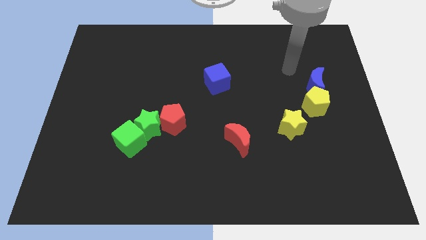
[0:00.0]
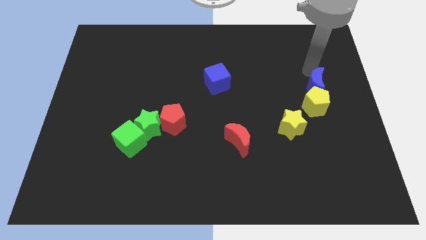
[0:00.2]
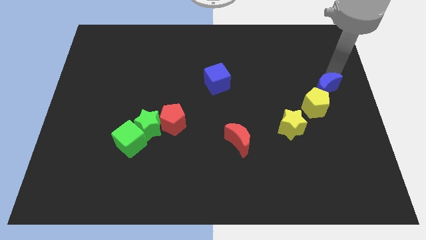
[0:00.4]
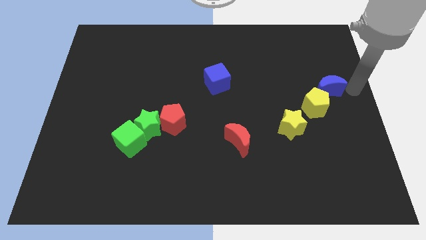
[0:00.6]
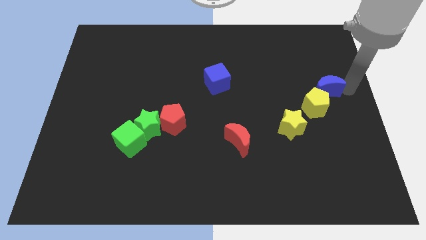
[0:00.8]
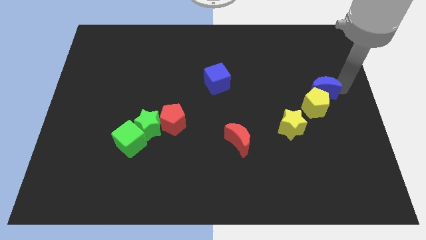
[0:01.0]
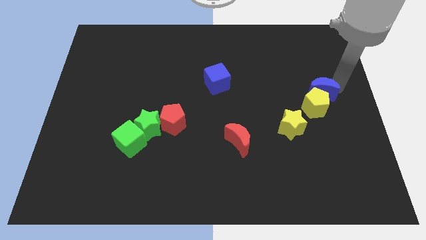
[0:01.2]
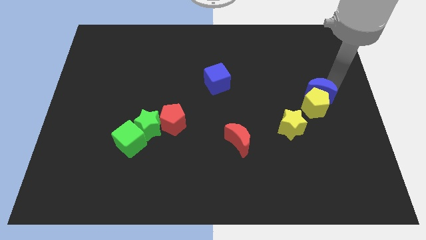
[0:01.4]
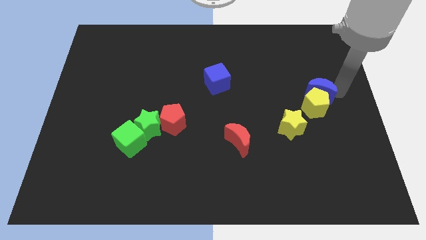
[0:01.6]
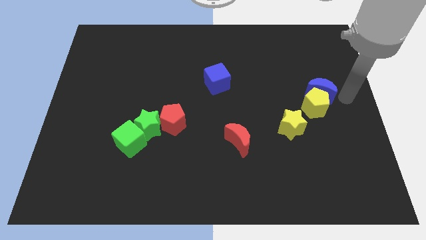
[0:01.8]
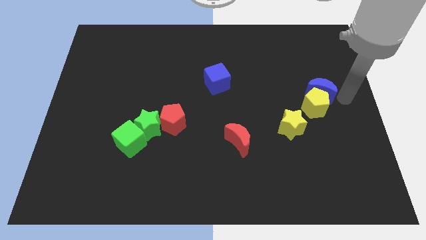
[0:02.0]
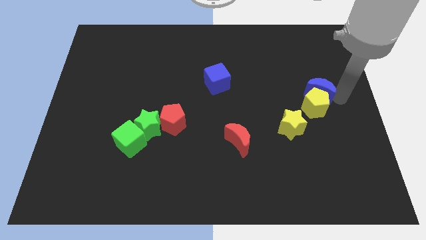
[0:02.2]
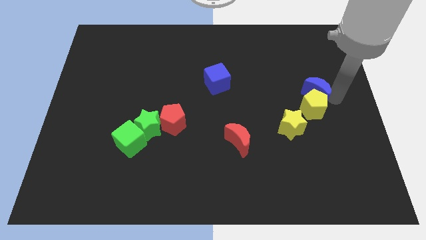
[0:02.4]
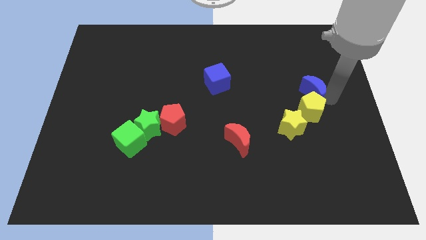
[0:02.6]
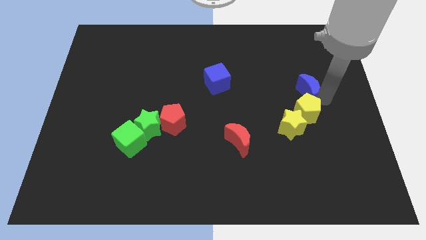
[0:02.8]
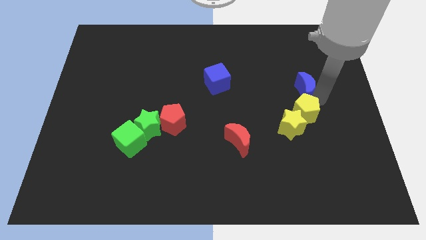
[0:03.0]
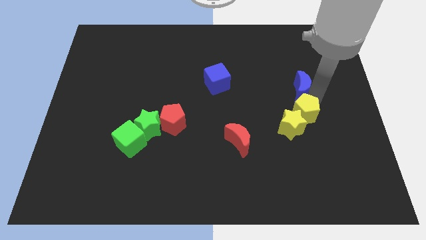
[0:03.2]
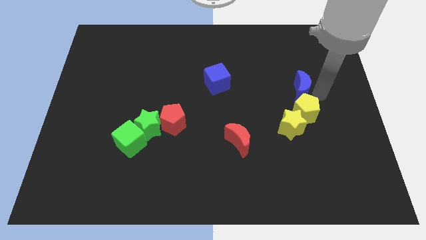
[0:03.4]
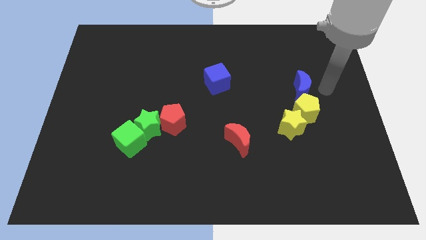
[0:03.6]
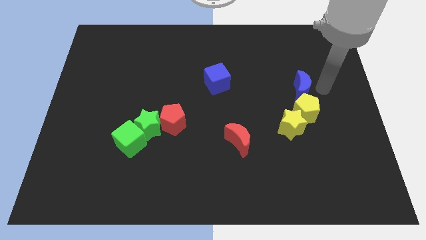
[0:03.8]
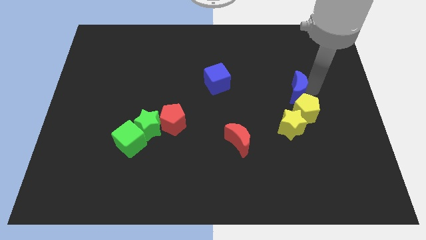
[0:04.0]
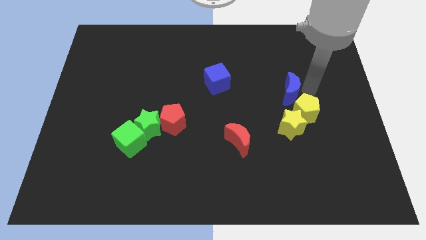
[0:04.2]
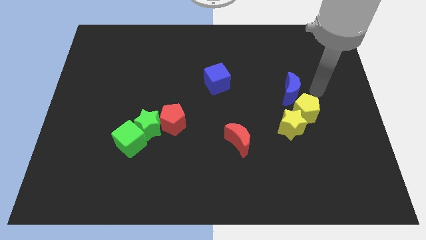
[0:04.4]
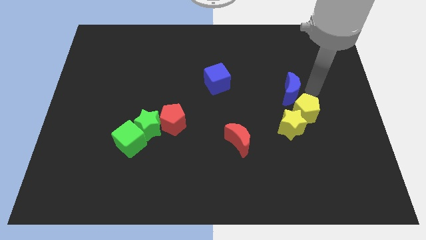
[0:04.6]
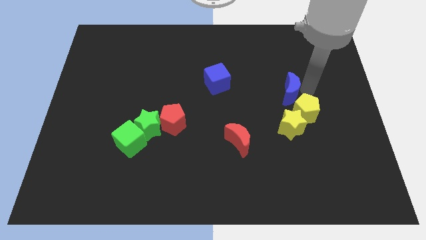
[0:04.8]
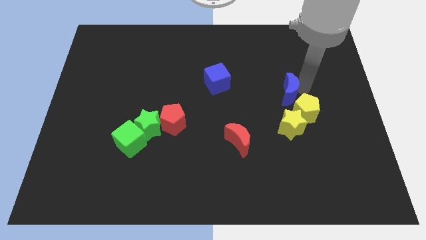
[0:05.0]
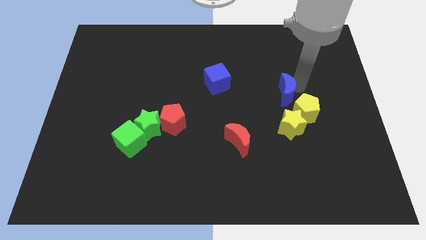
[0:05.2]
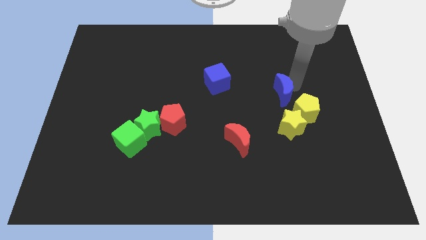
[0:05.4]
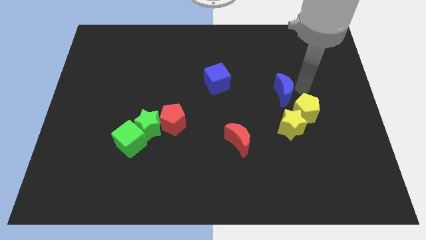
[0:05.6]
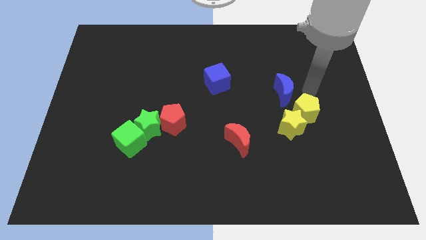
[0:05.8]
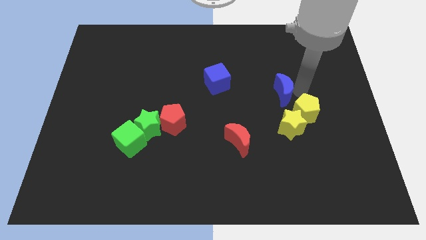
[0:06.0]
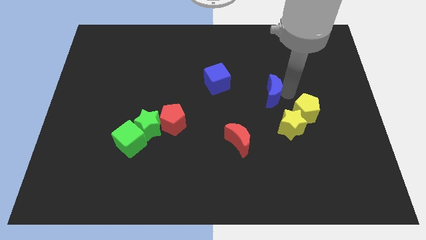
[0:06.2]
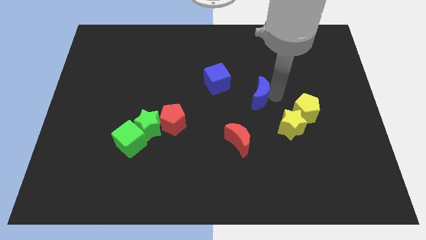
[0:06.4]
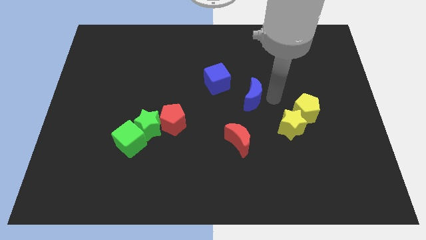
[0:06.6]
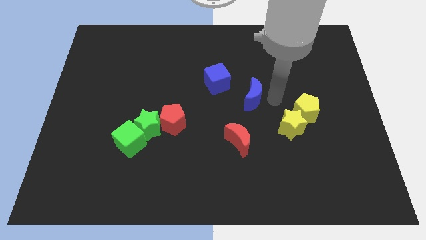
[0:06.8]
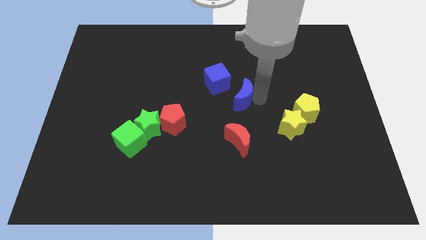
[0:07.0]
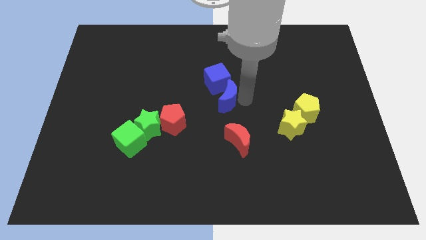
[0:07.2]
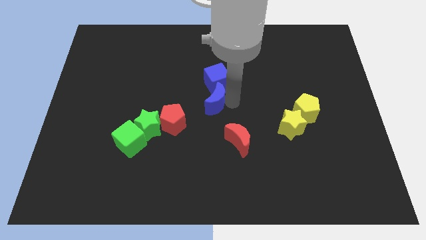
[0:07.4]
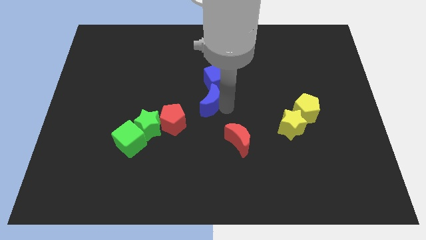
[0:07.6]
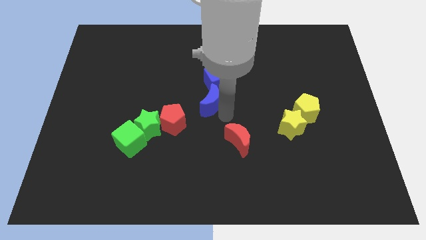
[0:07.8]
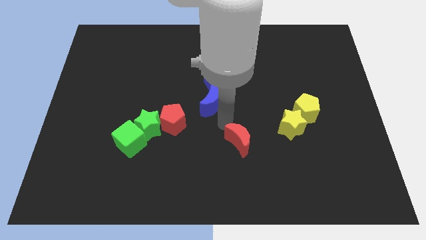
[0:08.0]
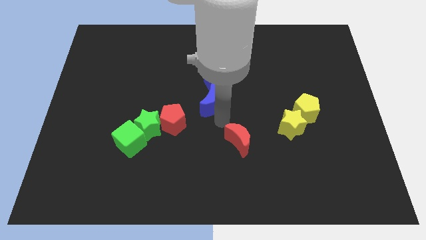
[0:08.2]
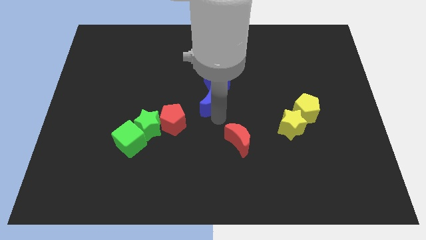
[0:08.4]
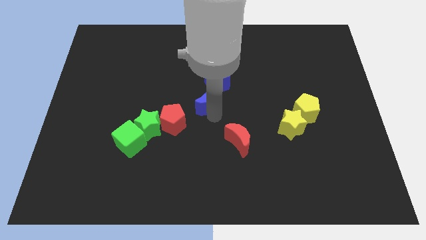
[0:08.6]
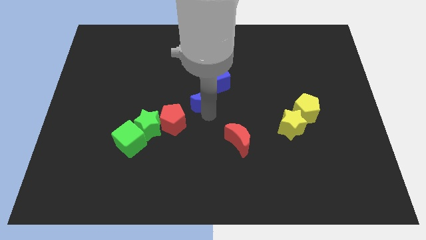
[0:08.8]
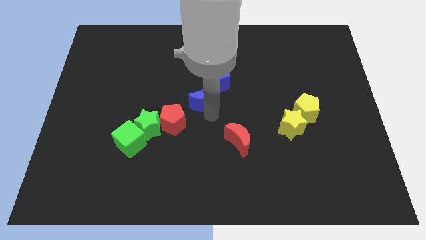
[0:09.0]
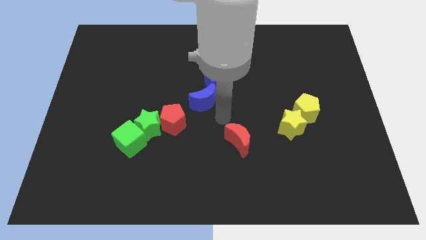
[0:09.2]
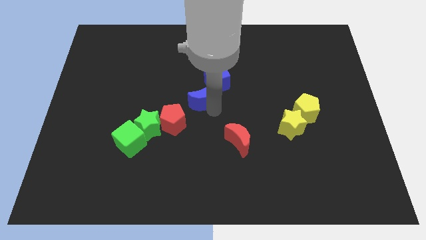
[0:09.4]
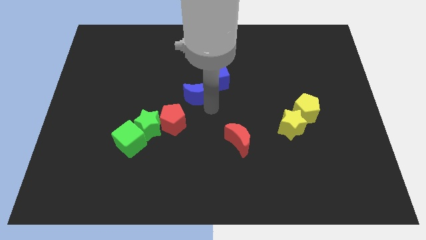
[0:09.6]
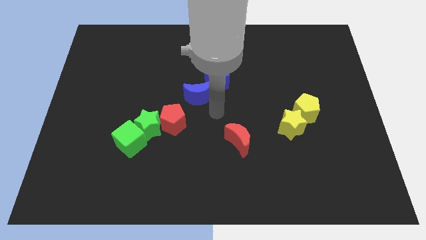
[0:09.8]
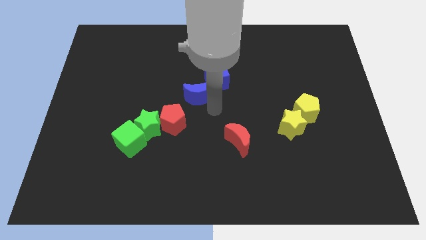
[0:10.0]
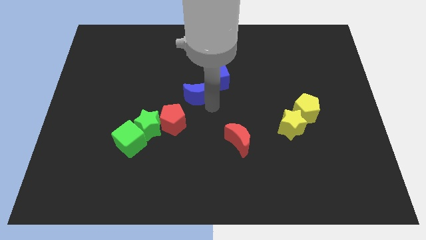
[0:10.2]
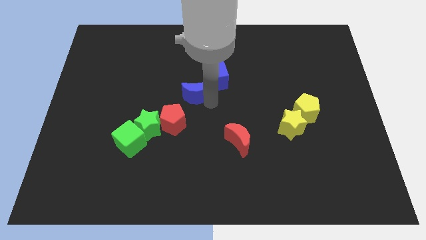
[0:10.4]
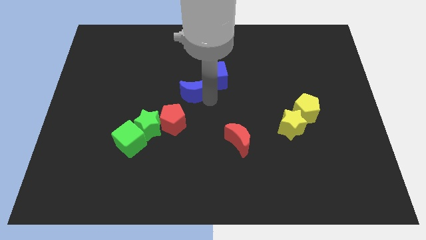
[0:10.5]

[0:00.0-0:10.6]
slide the blue moon to the top side of the red pentagon

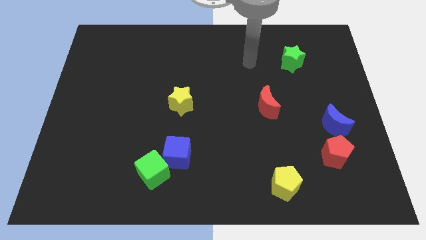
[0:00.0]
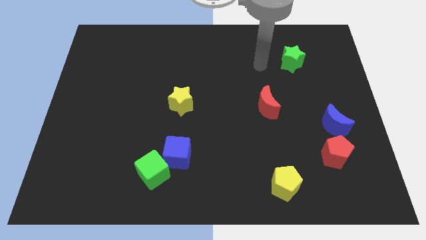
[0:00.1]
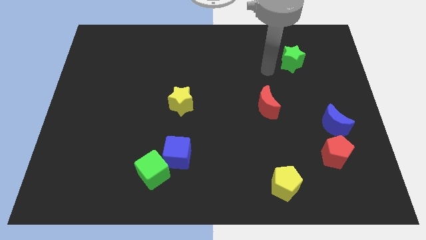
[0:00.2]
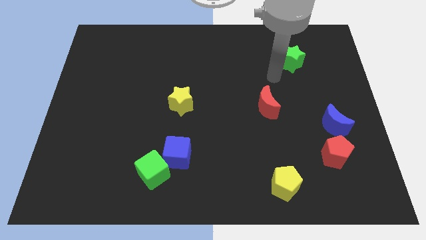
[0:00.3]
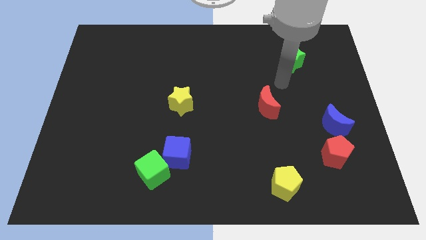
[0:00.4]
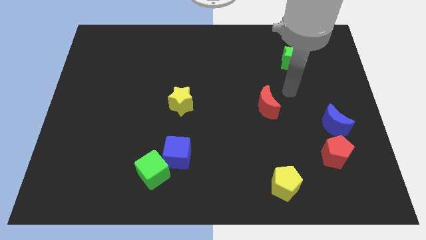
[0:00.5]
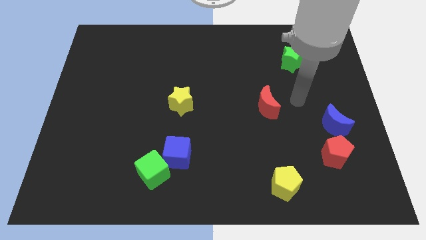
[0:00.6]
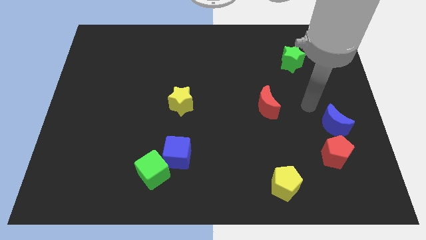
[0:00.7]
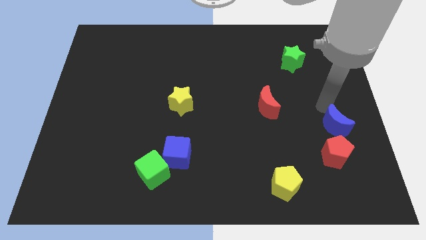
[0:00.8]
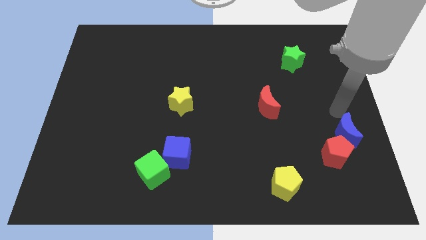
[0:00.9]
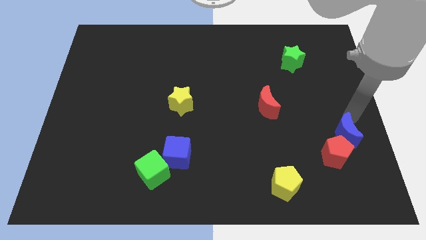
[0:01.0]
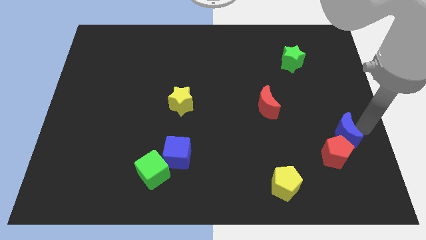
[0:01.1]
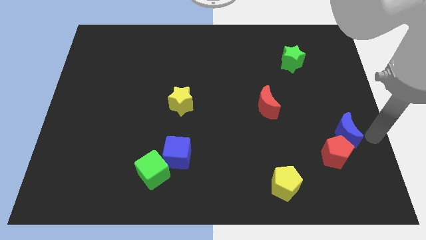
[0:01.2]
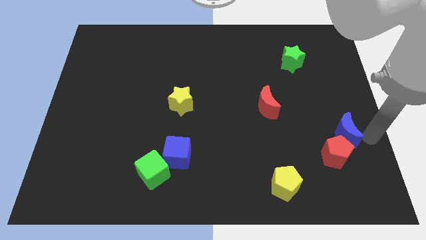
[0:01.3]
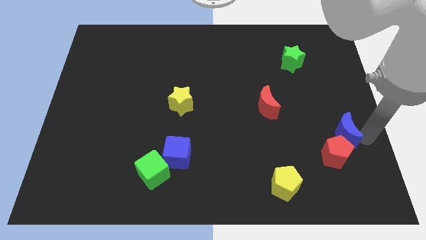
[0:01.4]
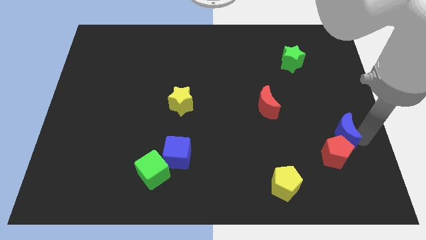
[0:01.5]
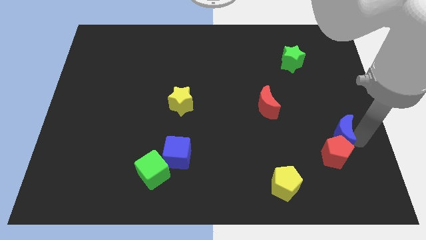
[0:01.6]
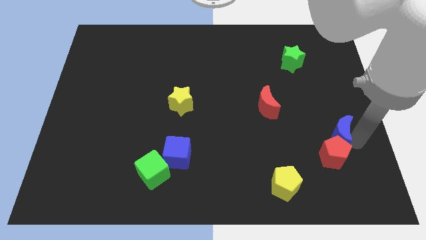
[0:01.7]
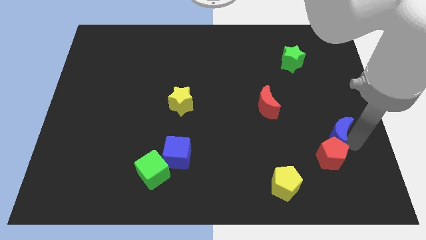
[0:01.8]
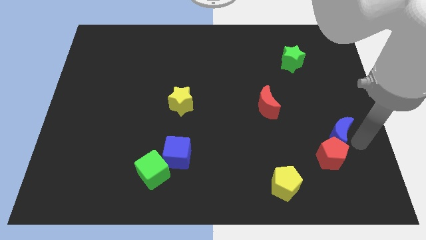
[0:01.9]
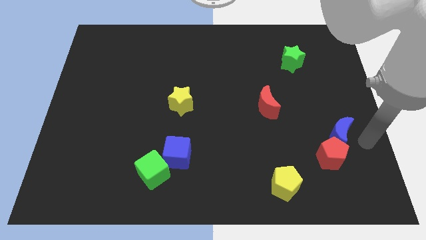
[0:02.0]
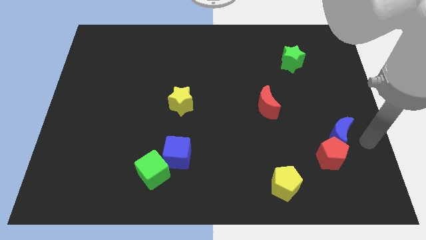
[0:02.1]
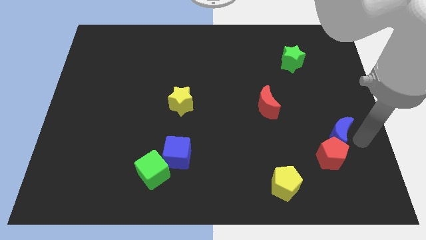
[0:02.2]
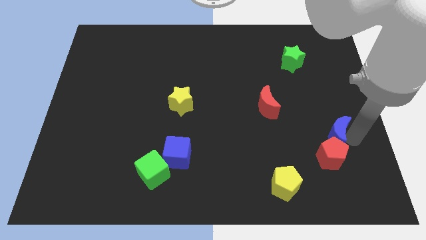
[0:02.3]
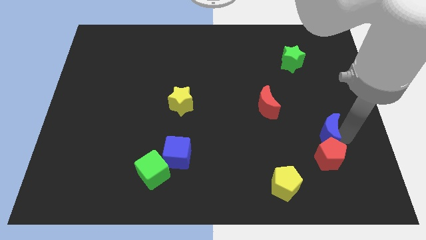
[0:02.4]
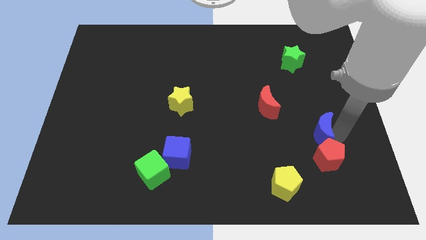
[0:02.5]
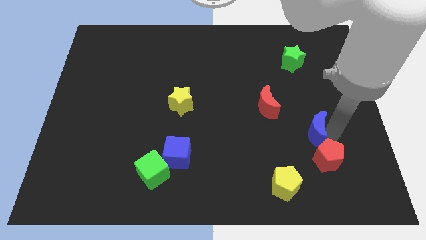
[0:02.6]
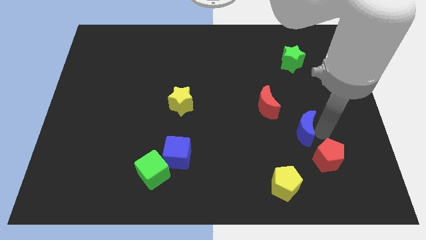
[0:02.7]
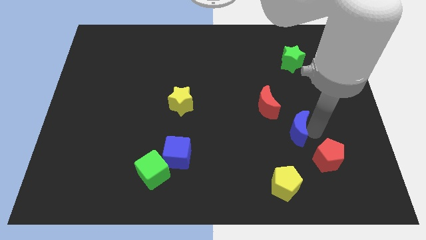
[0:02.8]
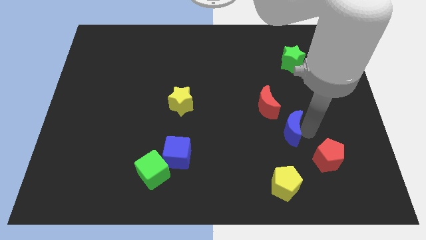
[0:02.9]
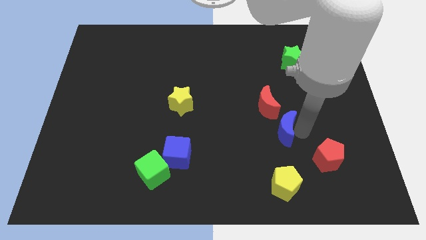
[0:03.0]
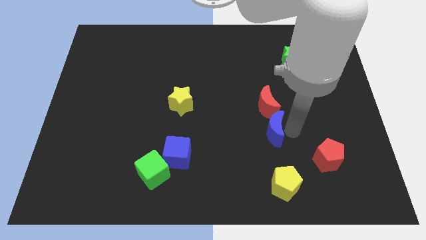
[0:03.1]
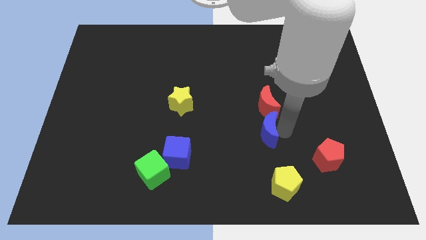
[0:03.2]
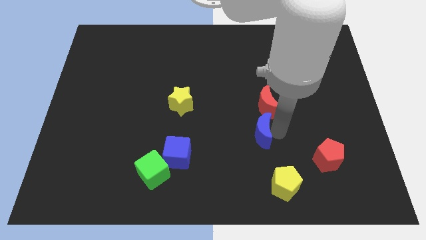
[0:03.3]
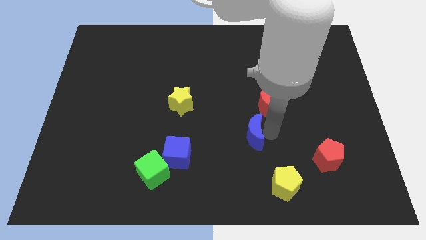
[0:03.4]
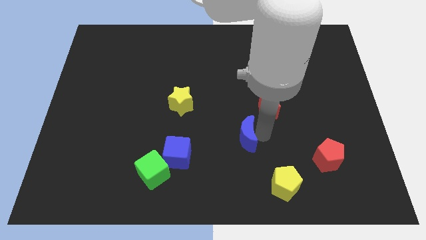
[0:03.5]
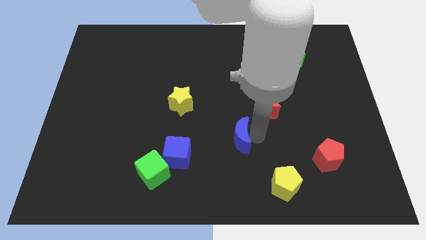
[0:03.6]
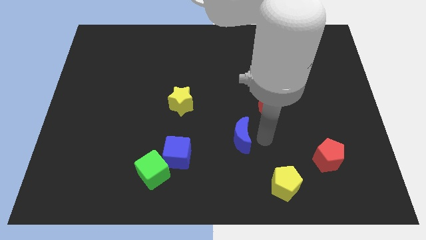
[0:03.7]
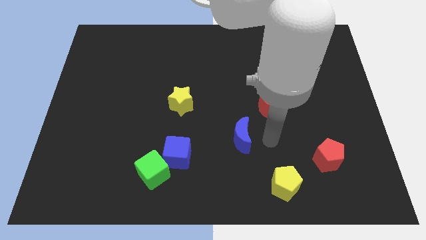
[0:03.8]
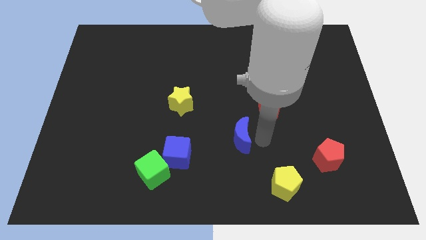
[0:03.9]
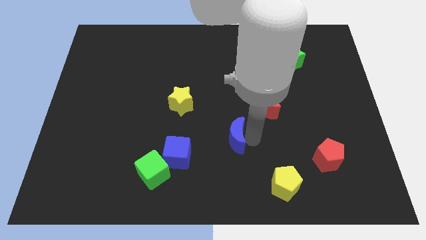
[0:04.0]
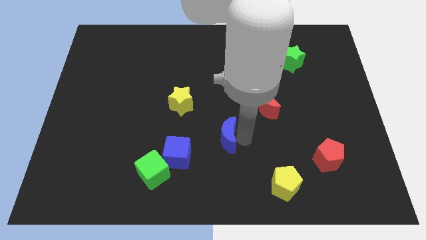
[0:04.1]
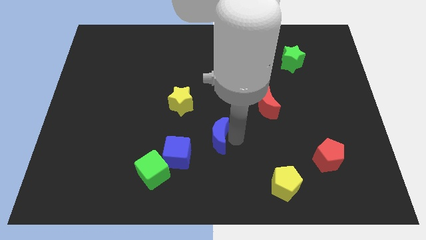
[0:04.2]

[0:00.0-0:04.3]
slide the blue moon to the top right of the blue cube
